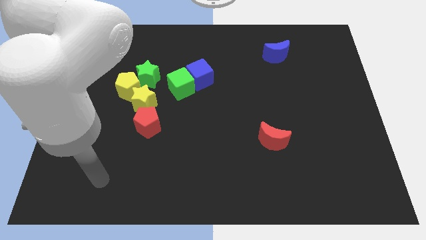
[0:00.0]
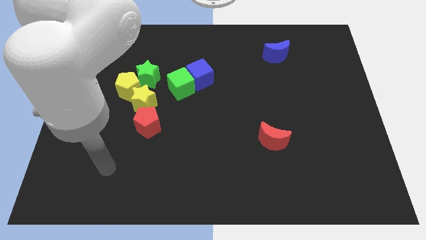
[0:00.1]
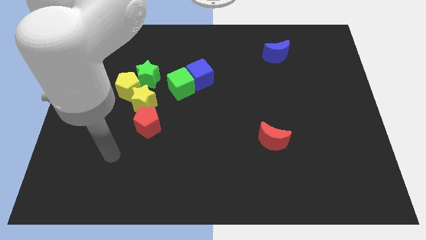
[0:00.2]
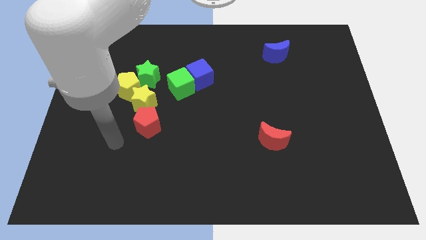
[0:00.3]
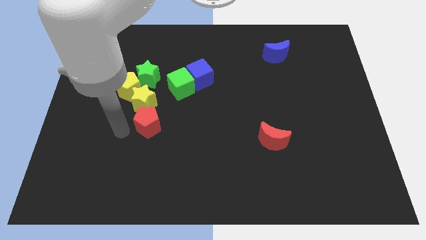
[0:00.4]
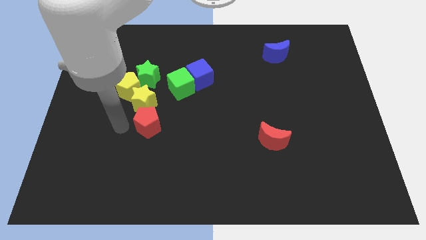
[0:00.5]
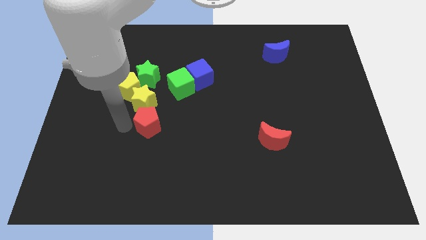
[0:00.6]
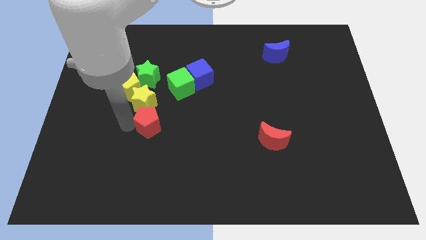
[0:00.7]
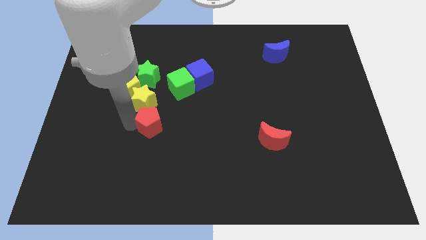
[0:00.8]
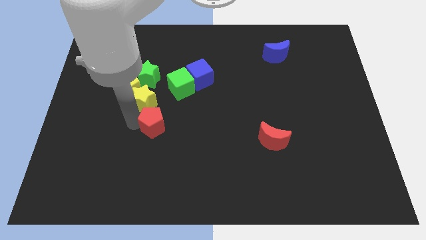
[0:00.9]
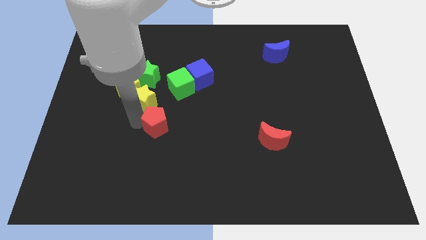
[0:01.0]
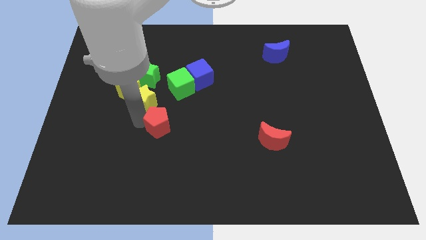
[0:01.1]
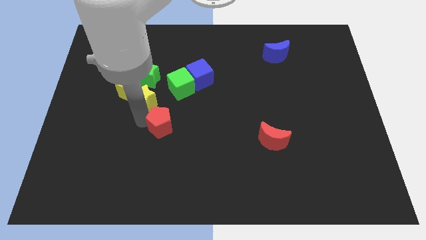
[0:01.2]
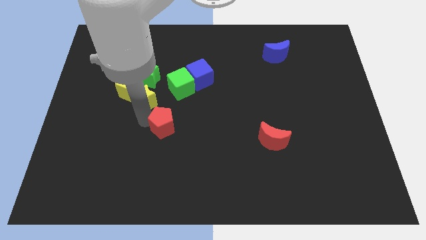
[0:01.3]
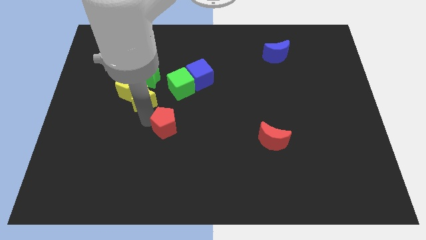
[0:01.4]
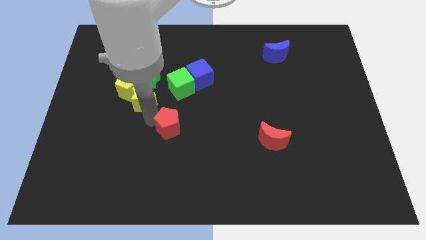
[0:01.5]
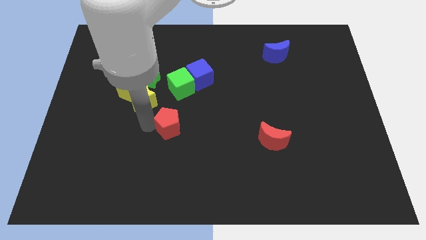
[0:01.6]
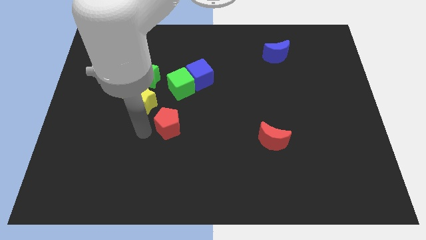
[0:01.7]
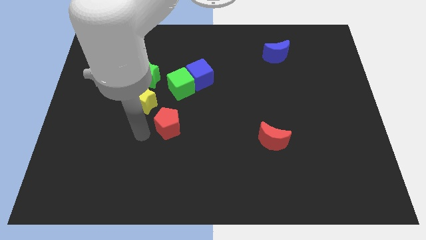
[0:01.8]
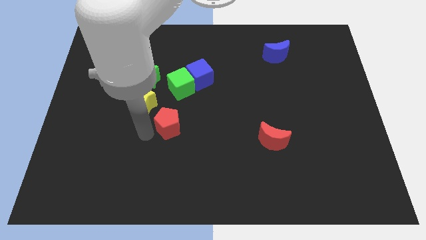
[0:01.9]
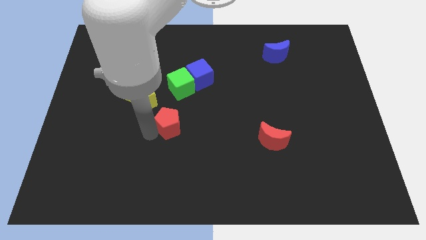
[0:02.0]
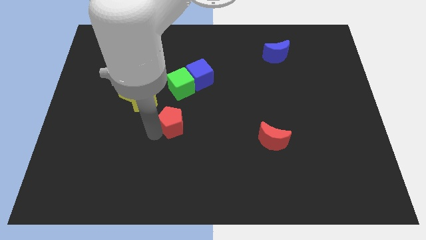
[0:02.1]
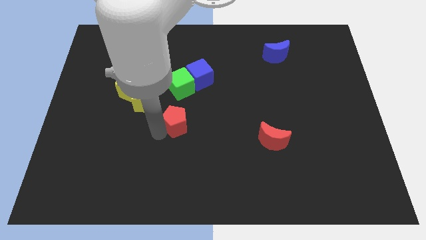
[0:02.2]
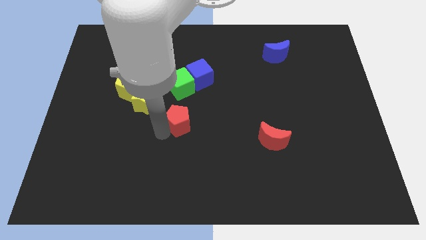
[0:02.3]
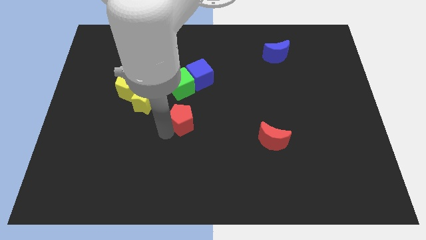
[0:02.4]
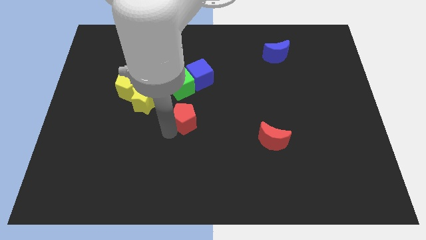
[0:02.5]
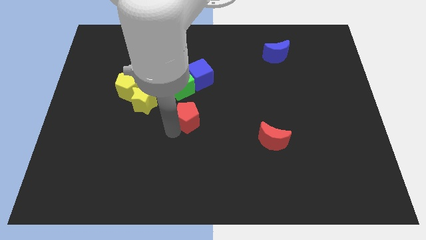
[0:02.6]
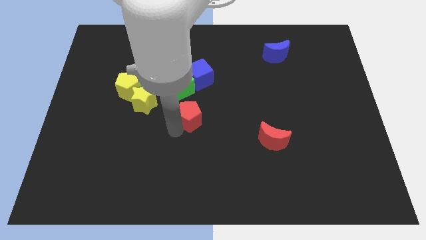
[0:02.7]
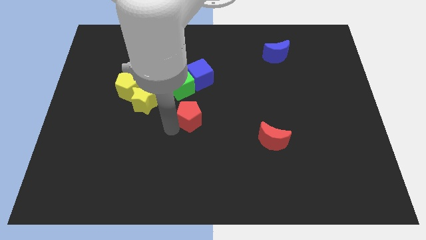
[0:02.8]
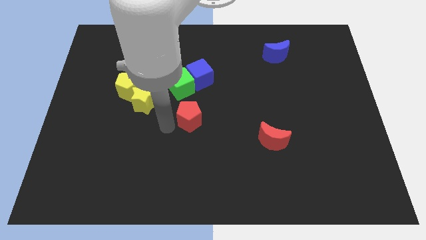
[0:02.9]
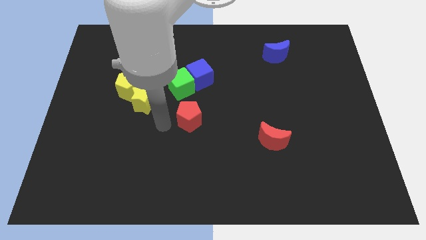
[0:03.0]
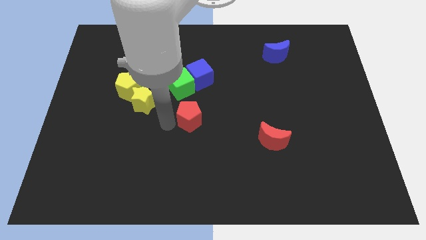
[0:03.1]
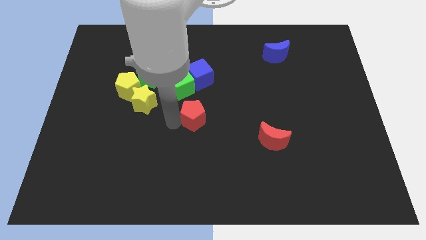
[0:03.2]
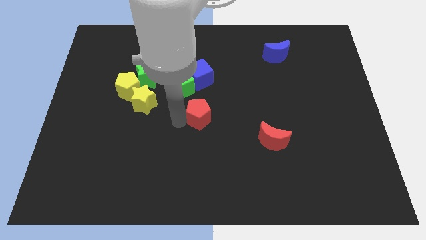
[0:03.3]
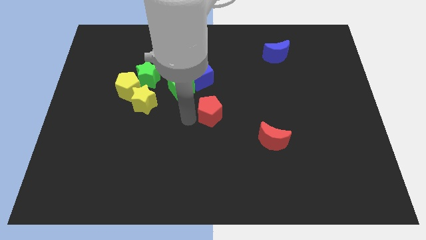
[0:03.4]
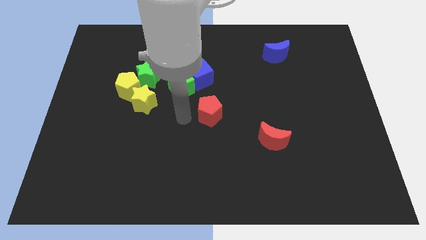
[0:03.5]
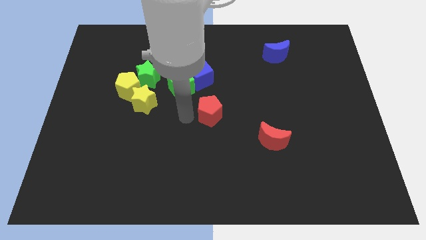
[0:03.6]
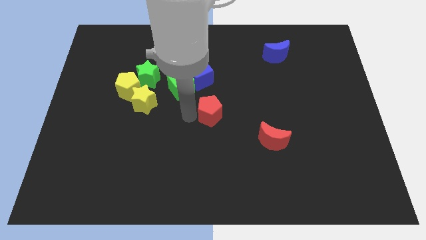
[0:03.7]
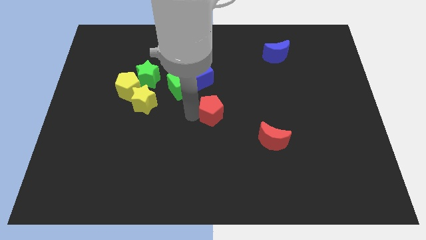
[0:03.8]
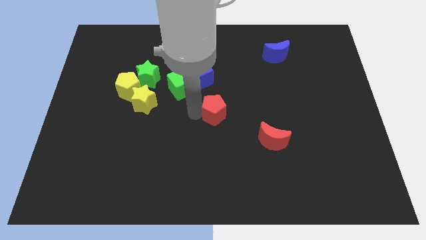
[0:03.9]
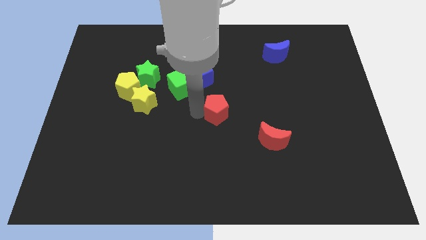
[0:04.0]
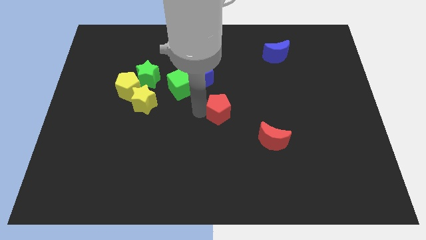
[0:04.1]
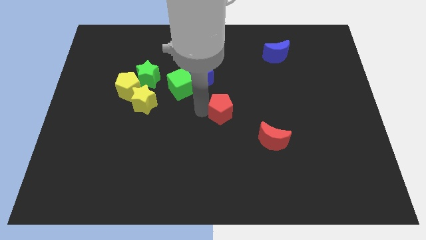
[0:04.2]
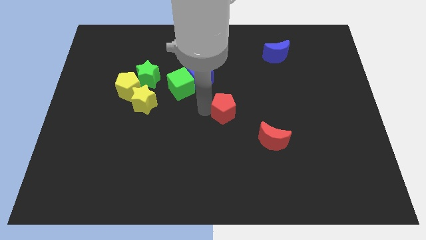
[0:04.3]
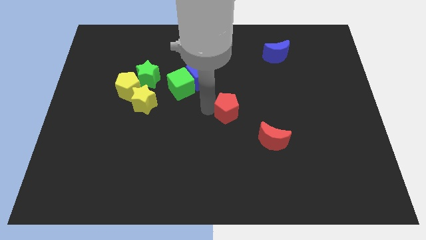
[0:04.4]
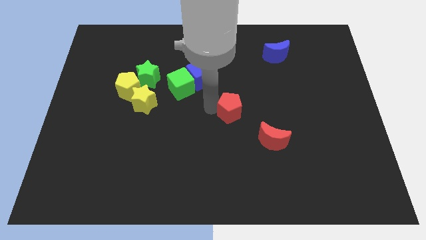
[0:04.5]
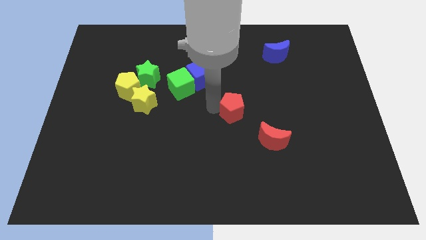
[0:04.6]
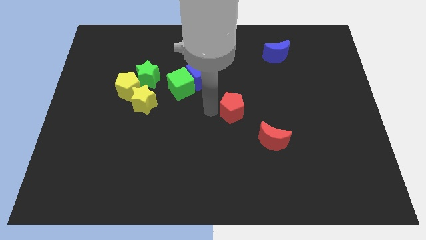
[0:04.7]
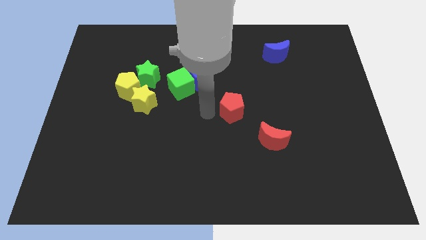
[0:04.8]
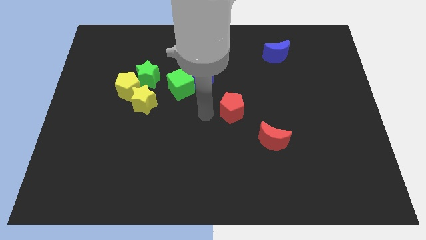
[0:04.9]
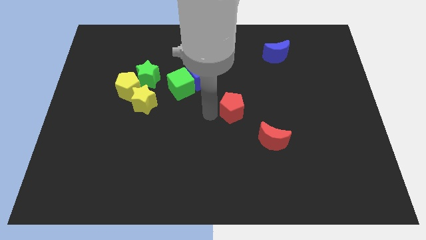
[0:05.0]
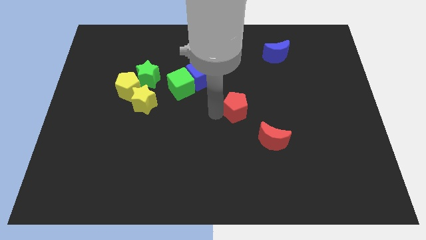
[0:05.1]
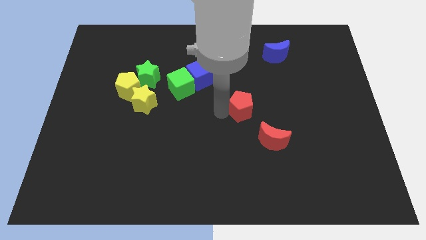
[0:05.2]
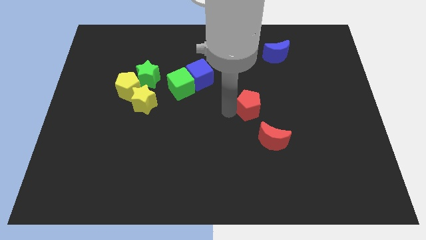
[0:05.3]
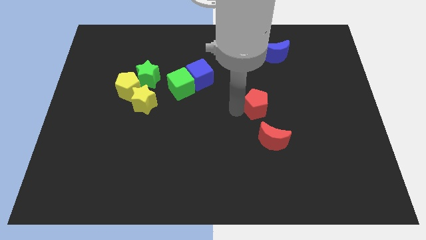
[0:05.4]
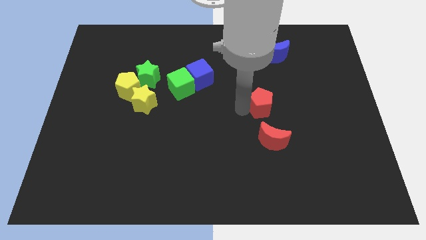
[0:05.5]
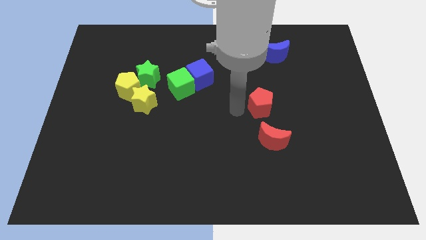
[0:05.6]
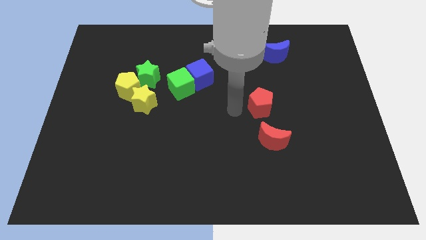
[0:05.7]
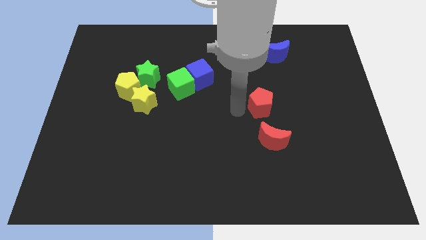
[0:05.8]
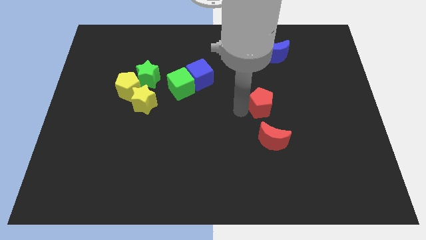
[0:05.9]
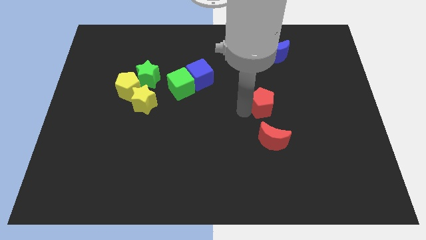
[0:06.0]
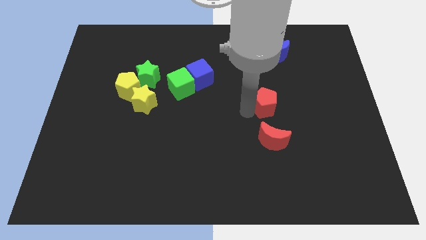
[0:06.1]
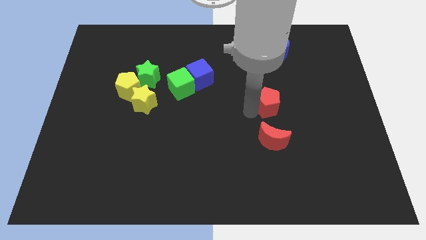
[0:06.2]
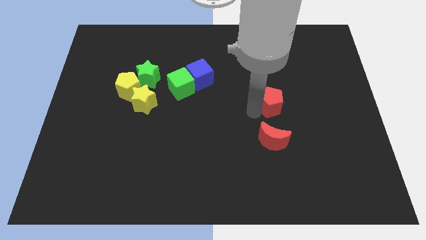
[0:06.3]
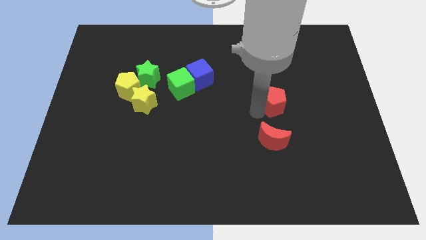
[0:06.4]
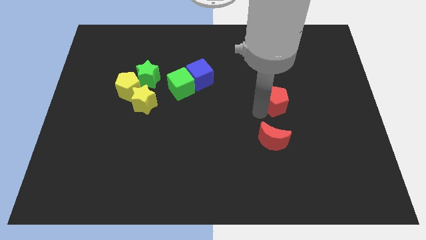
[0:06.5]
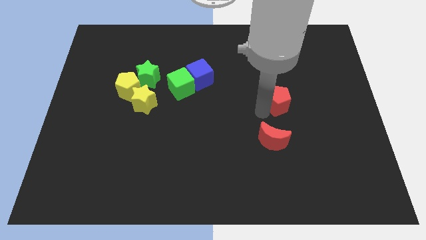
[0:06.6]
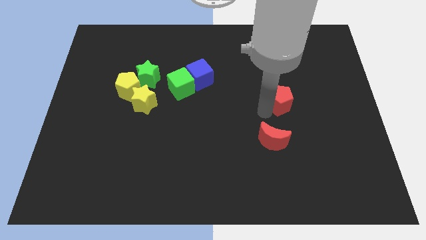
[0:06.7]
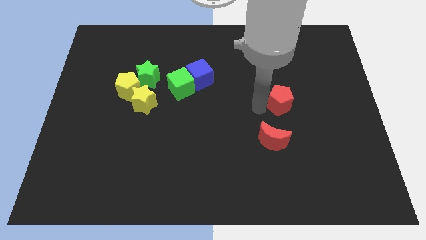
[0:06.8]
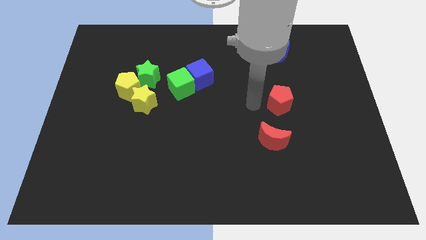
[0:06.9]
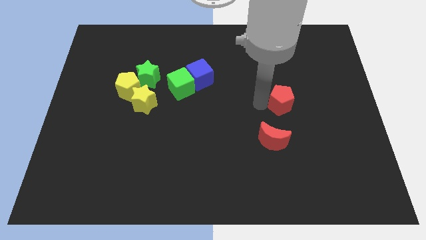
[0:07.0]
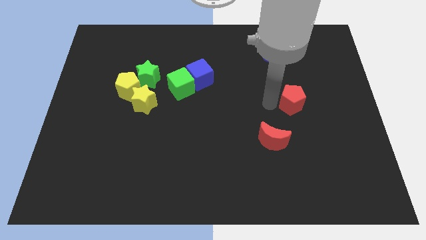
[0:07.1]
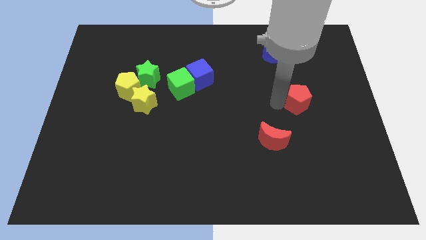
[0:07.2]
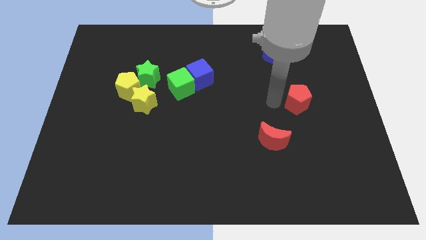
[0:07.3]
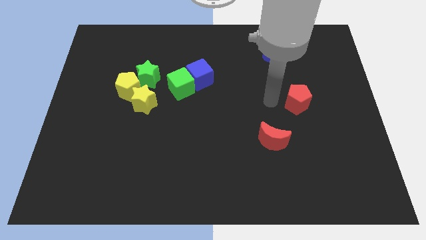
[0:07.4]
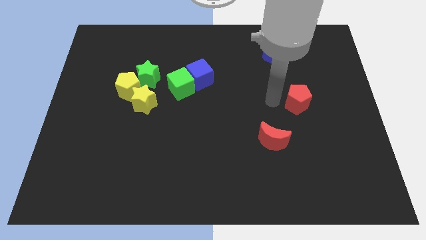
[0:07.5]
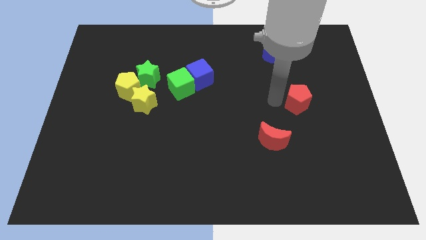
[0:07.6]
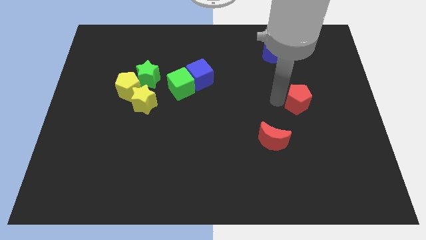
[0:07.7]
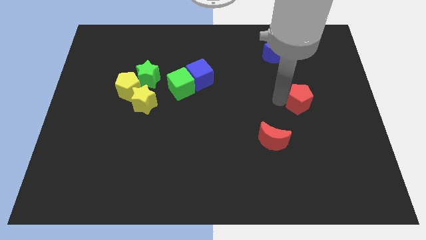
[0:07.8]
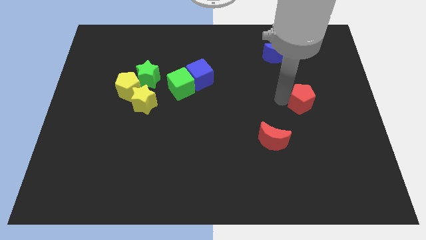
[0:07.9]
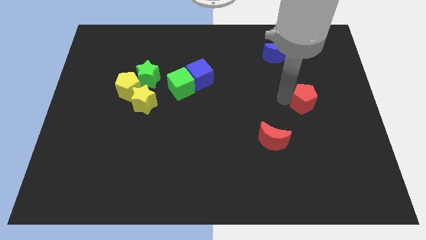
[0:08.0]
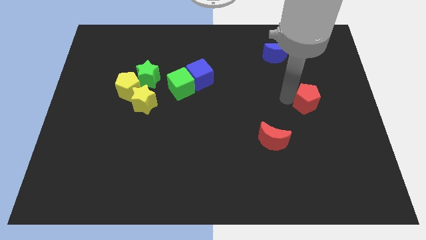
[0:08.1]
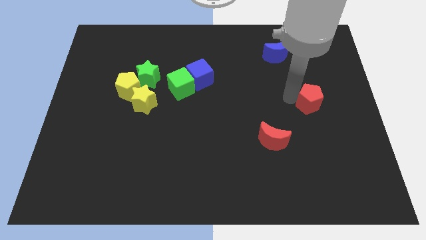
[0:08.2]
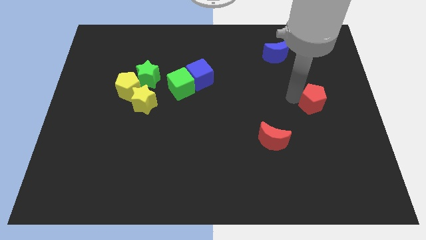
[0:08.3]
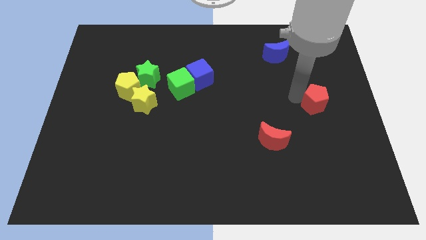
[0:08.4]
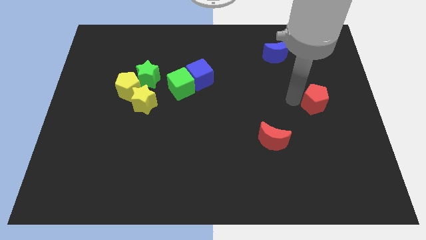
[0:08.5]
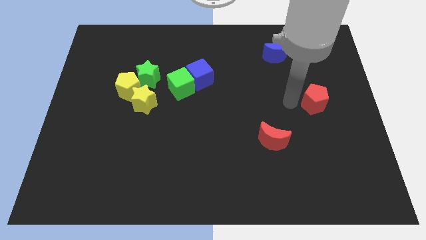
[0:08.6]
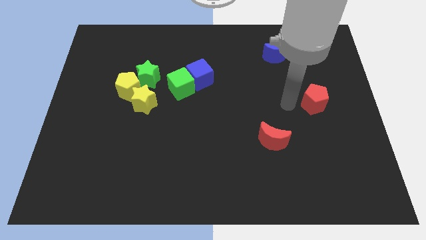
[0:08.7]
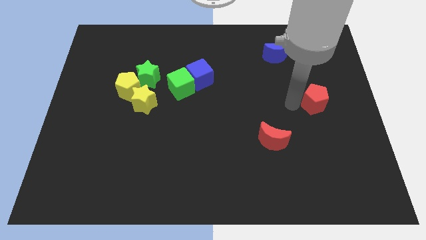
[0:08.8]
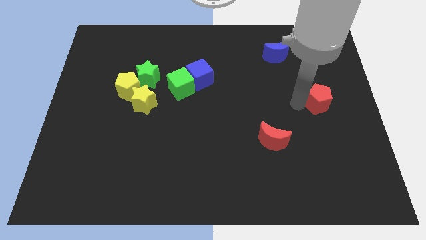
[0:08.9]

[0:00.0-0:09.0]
put the red pentagon to the right side
